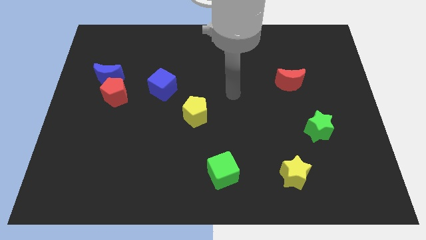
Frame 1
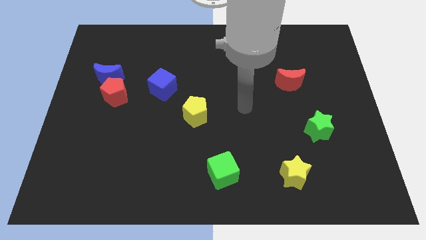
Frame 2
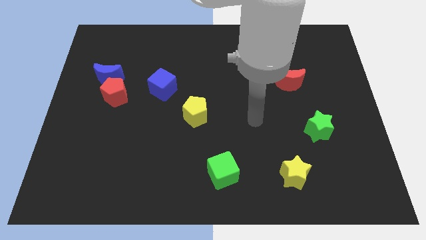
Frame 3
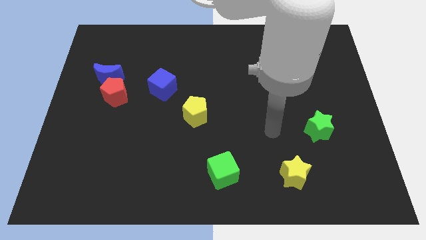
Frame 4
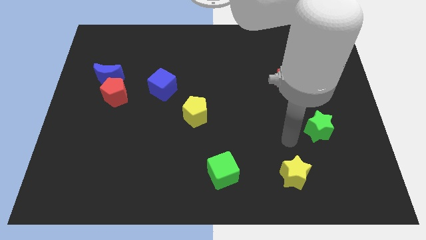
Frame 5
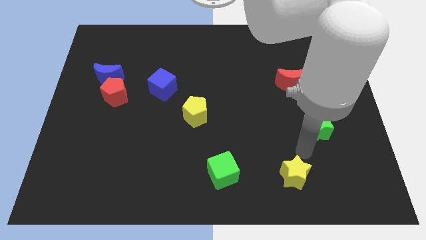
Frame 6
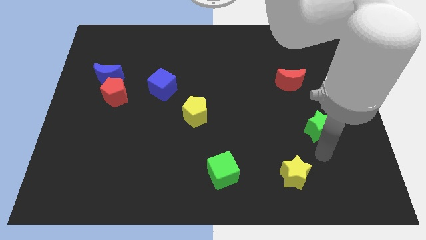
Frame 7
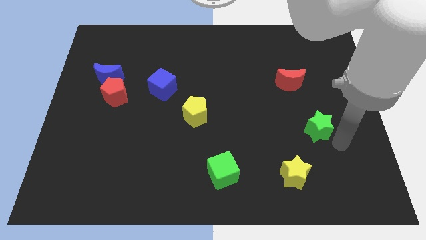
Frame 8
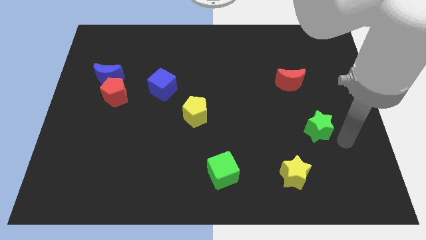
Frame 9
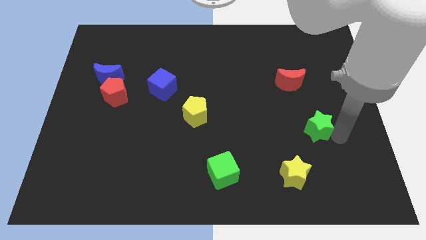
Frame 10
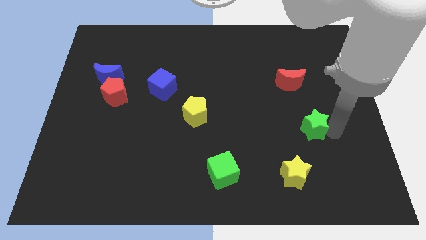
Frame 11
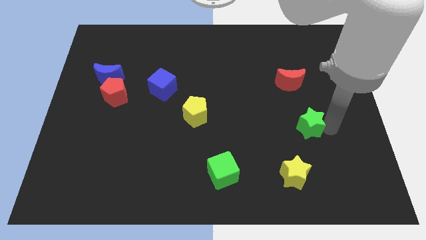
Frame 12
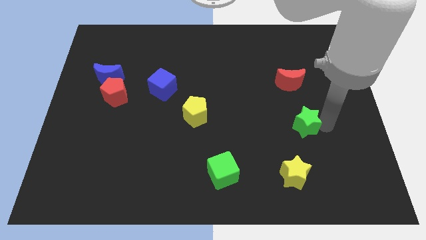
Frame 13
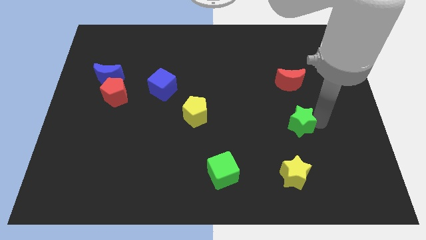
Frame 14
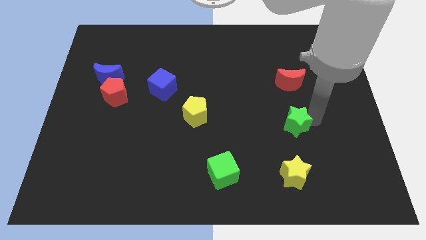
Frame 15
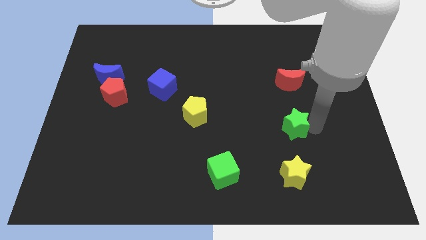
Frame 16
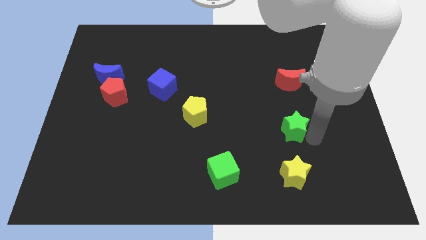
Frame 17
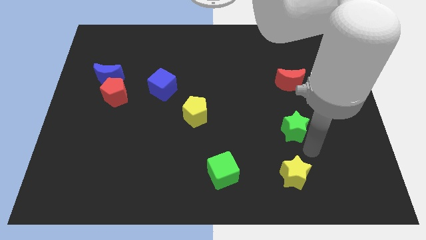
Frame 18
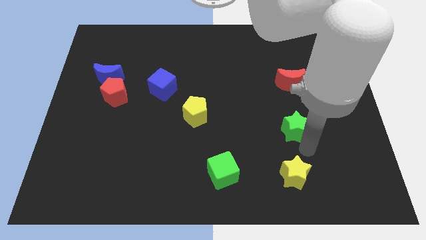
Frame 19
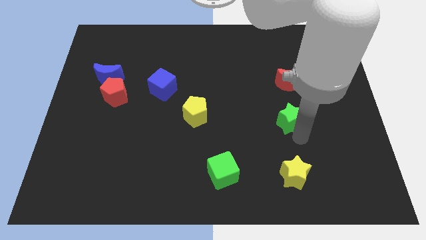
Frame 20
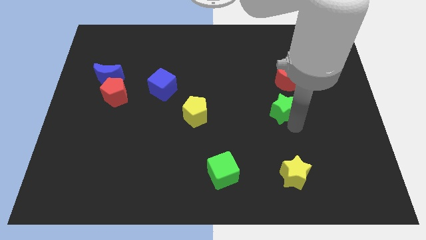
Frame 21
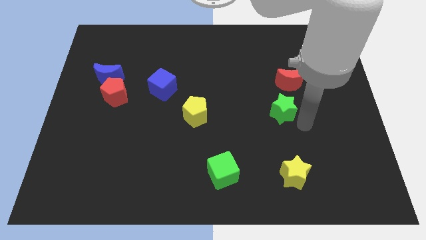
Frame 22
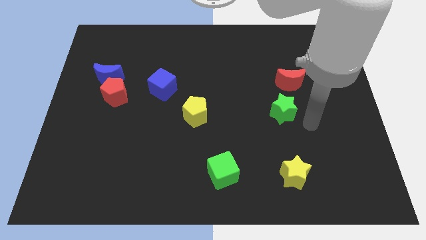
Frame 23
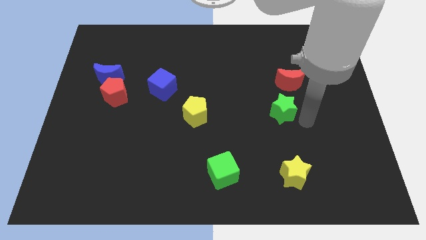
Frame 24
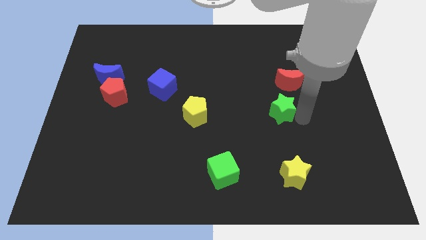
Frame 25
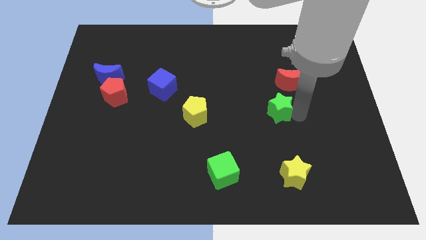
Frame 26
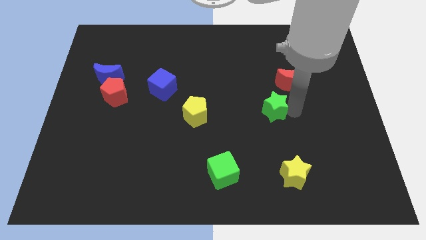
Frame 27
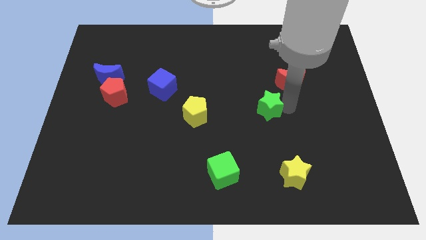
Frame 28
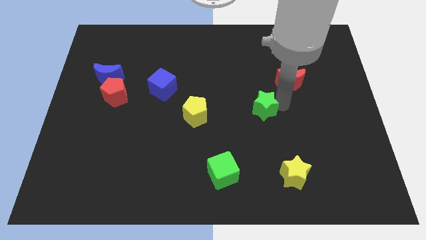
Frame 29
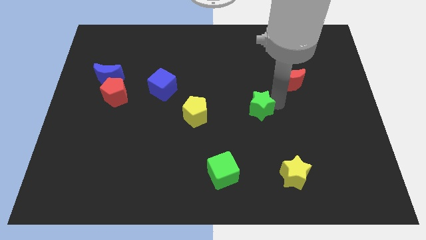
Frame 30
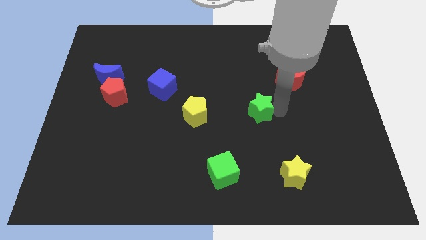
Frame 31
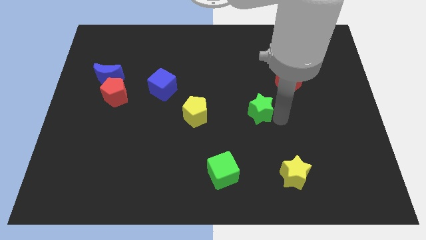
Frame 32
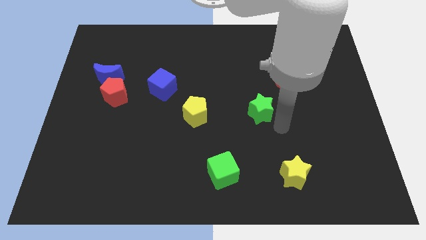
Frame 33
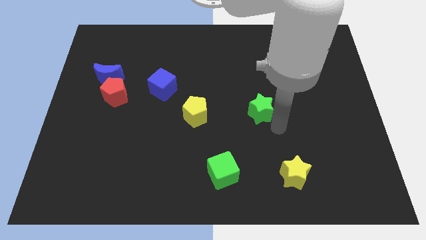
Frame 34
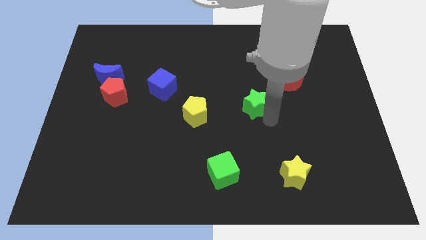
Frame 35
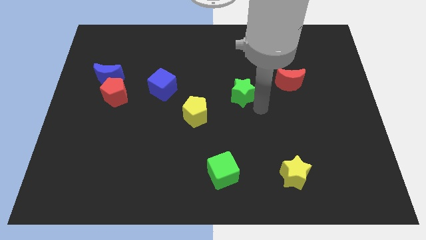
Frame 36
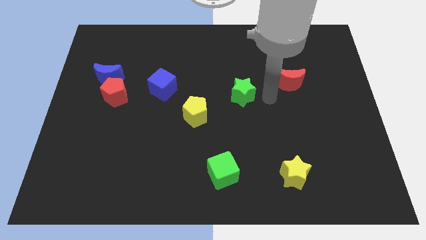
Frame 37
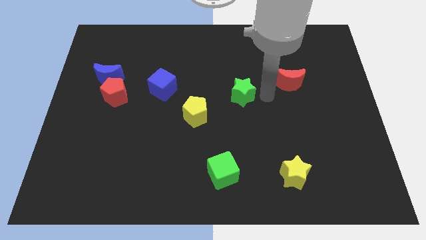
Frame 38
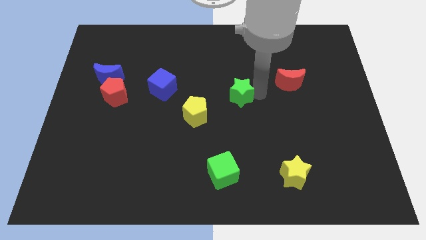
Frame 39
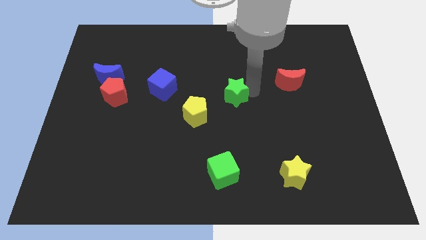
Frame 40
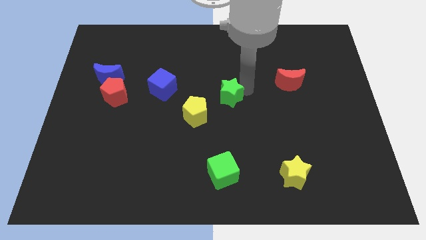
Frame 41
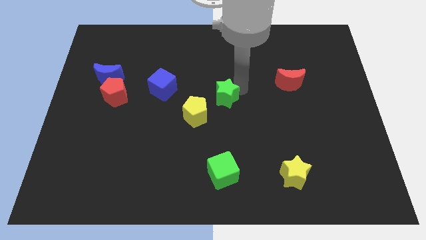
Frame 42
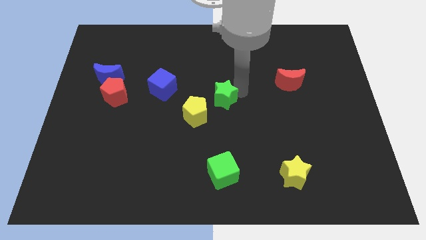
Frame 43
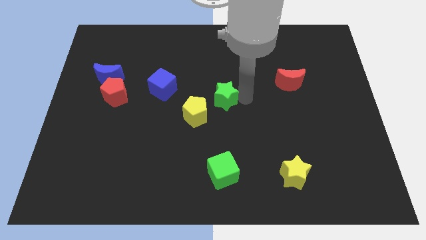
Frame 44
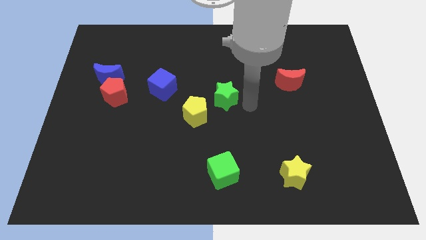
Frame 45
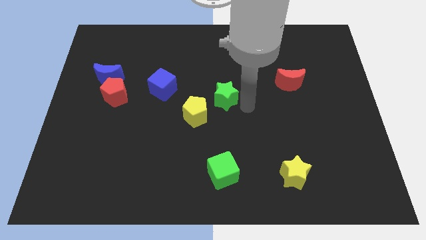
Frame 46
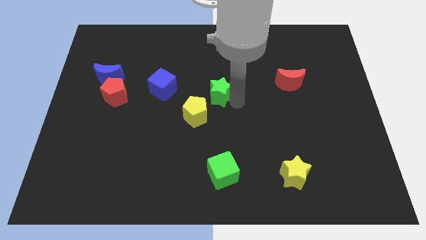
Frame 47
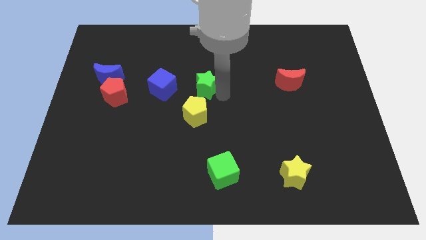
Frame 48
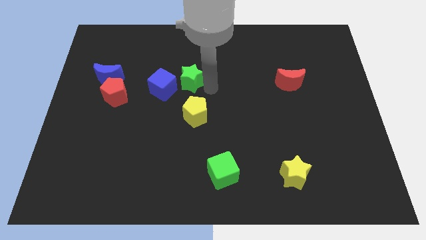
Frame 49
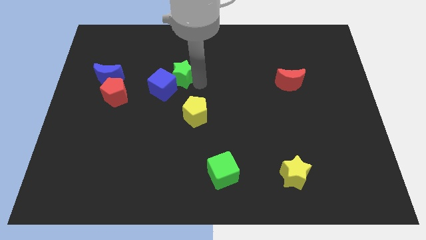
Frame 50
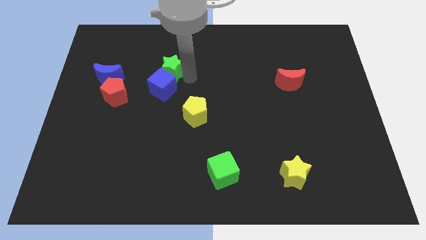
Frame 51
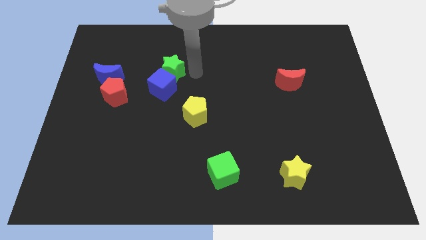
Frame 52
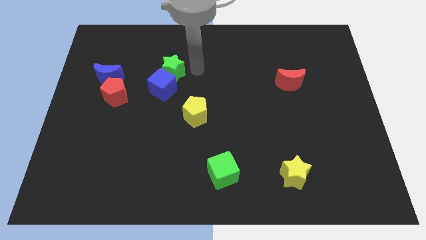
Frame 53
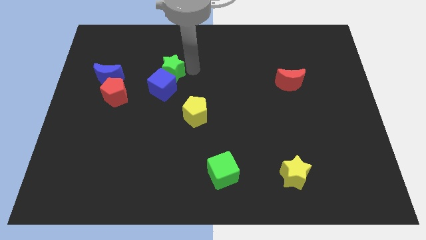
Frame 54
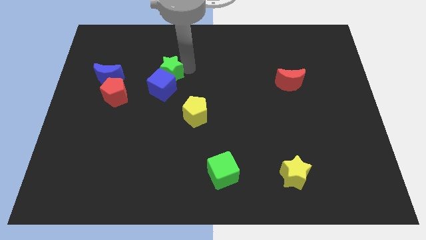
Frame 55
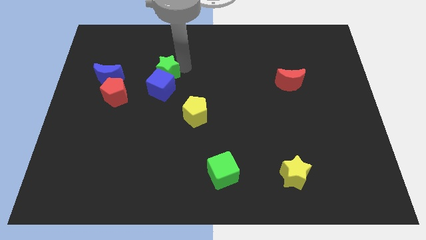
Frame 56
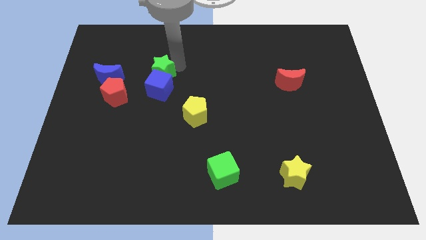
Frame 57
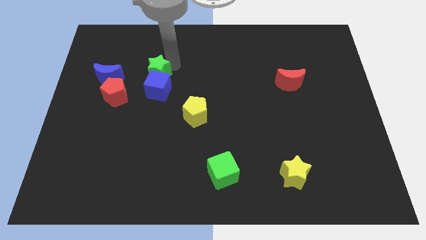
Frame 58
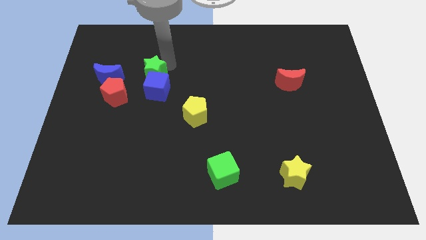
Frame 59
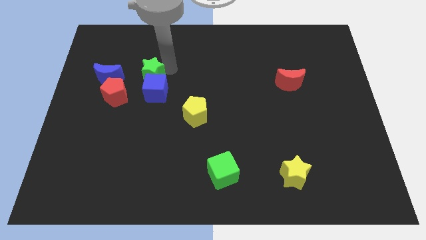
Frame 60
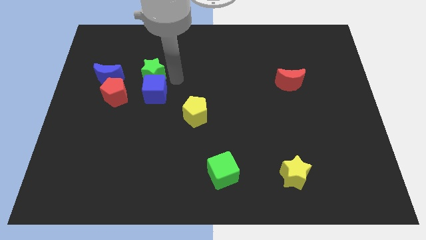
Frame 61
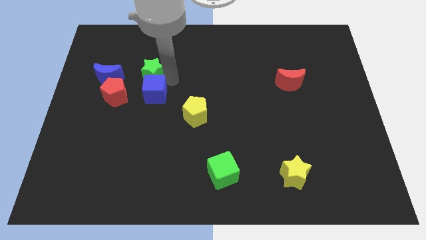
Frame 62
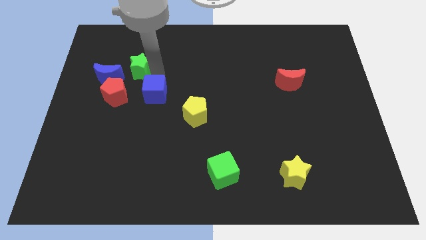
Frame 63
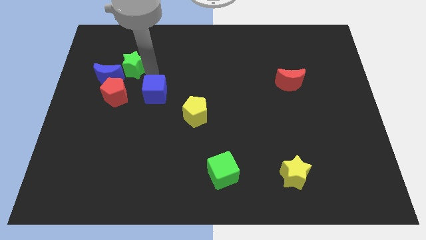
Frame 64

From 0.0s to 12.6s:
push the green star above the red pentagon

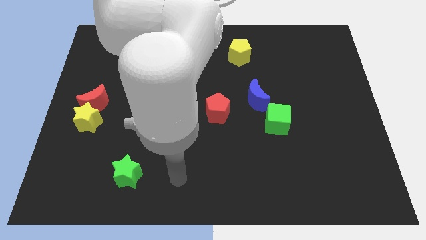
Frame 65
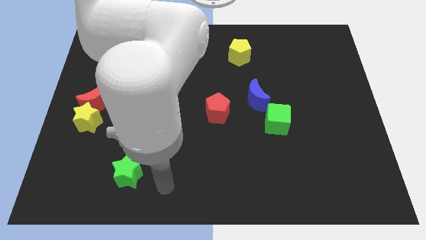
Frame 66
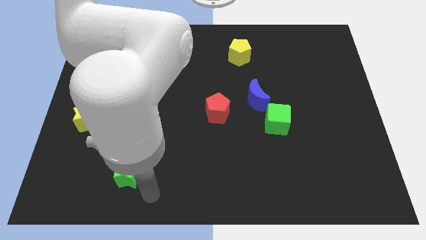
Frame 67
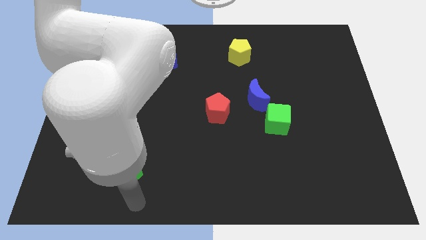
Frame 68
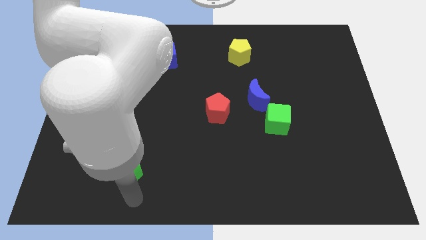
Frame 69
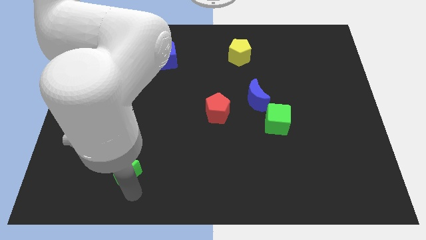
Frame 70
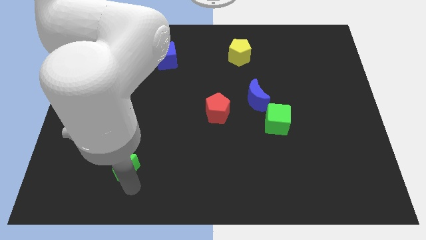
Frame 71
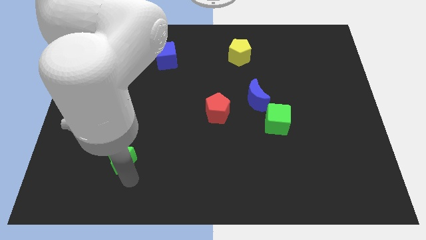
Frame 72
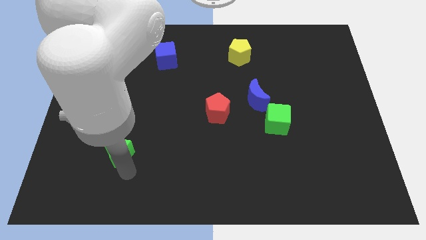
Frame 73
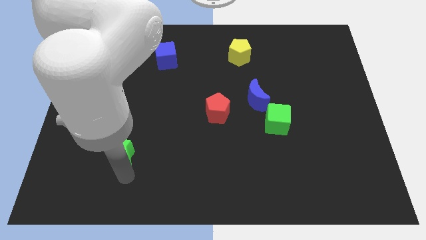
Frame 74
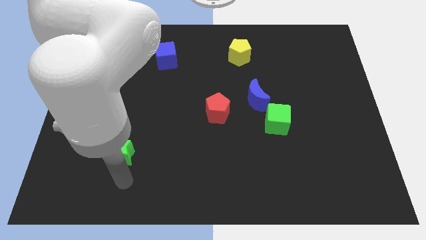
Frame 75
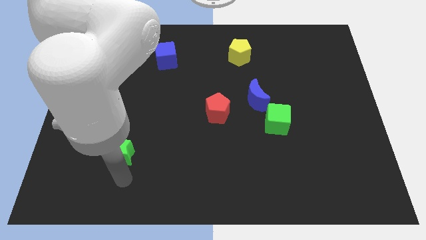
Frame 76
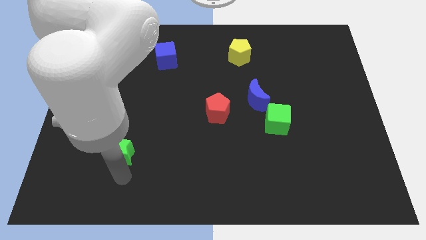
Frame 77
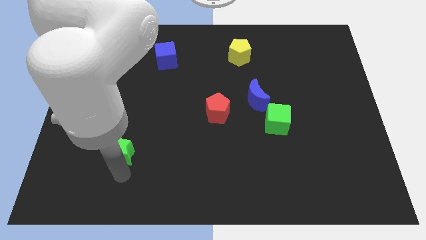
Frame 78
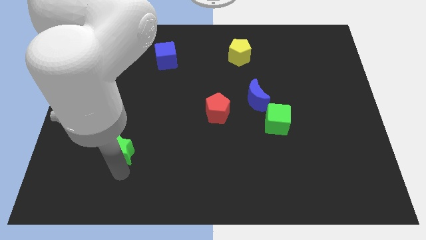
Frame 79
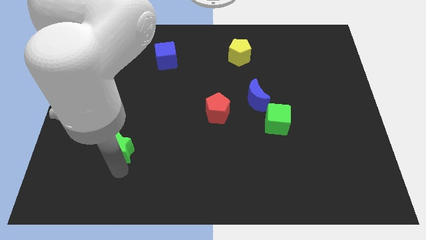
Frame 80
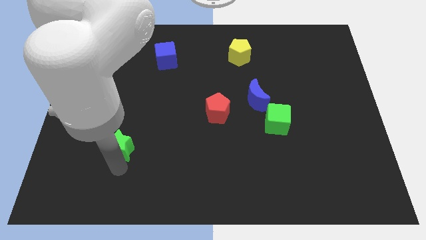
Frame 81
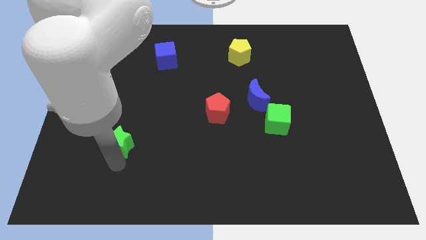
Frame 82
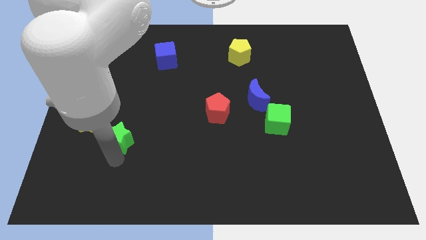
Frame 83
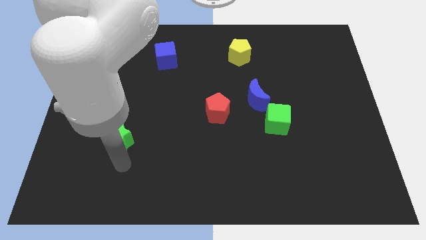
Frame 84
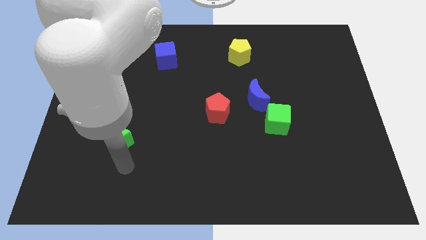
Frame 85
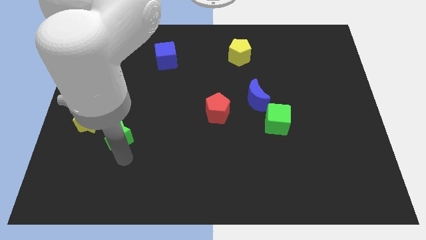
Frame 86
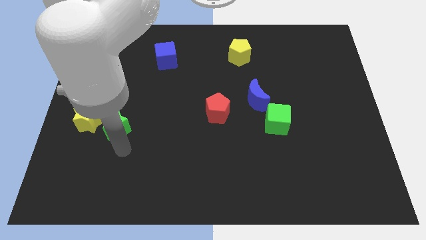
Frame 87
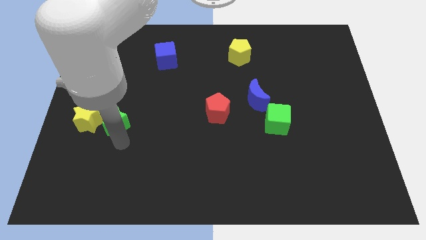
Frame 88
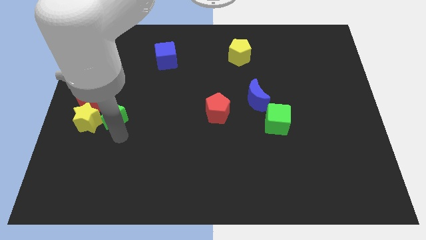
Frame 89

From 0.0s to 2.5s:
slide the green star diagonally up and to the right of the yellow star
